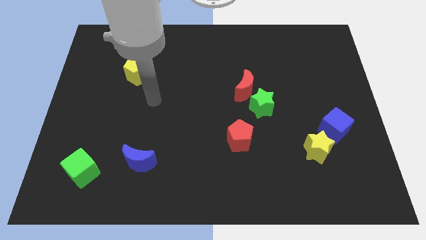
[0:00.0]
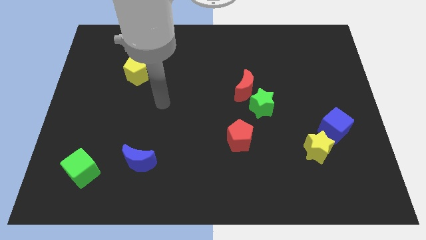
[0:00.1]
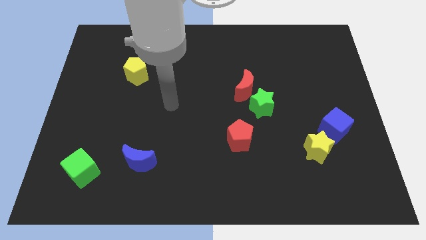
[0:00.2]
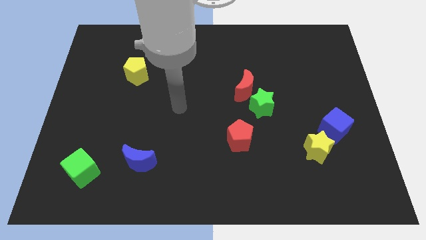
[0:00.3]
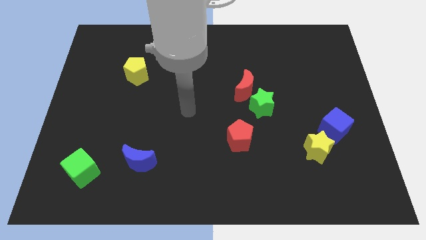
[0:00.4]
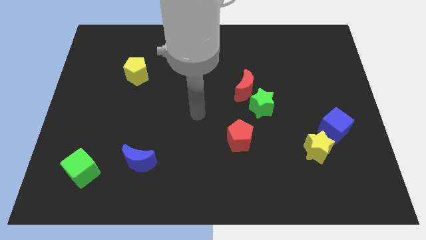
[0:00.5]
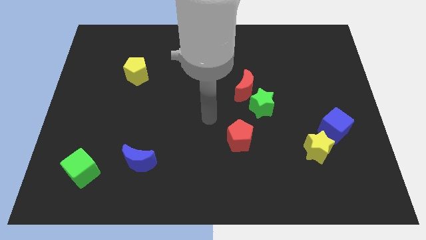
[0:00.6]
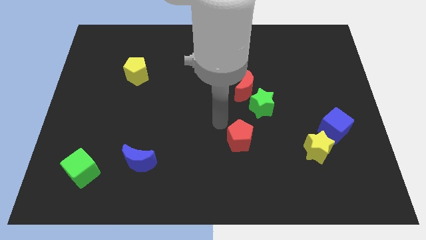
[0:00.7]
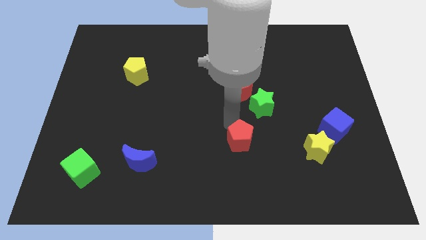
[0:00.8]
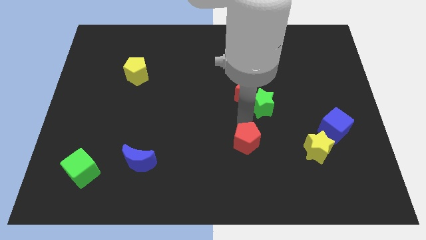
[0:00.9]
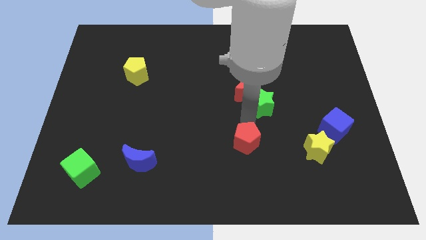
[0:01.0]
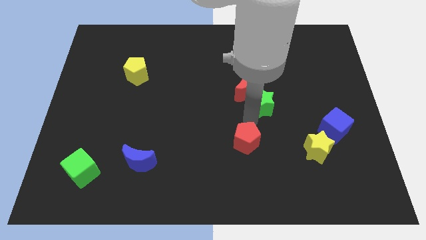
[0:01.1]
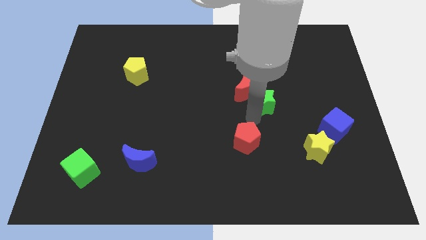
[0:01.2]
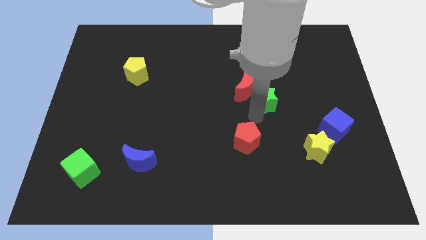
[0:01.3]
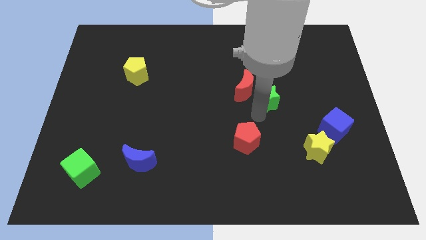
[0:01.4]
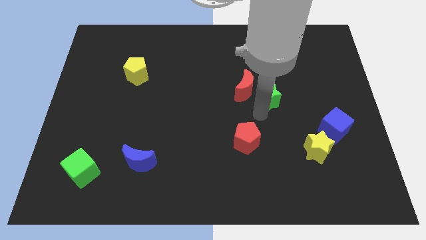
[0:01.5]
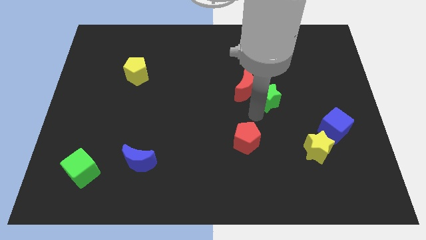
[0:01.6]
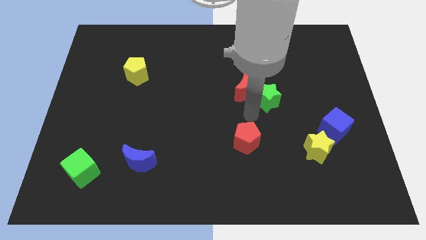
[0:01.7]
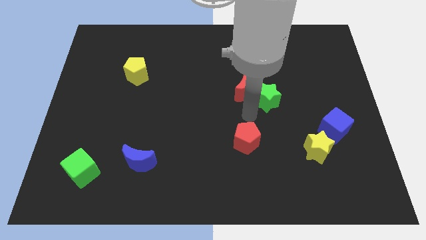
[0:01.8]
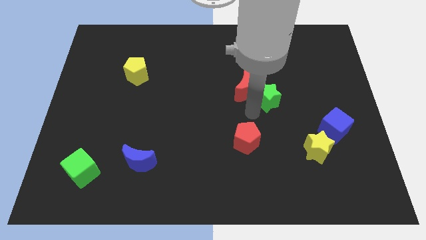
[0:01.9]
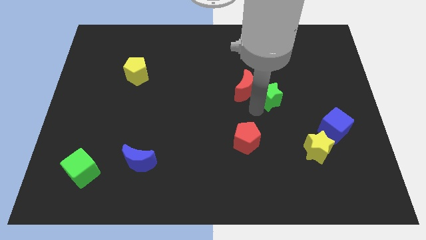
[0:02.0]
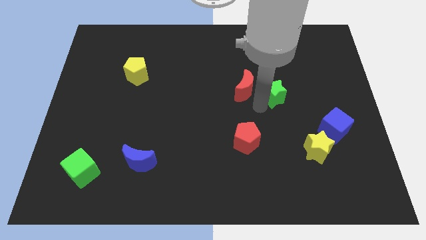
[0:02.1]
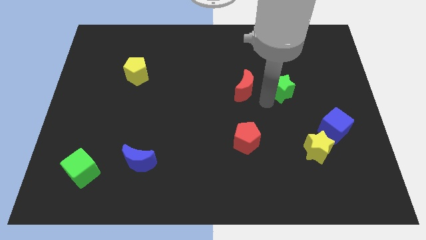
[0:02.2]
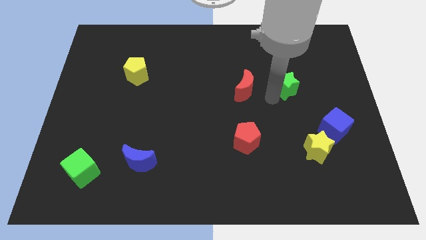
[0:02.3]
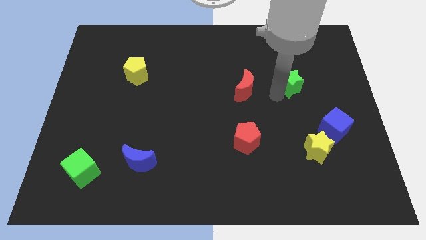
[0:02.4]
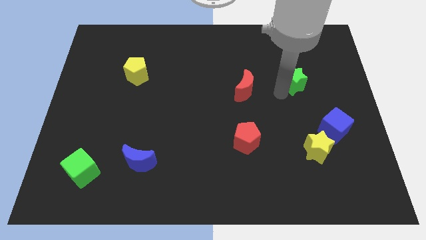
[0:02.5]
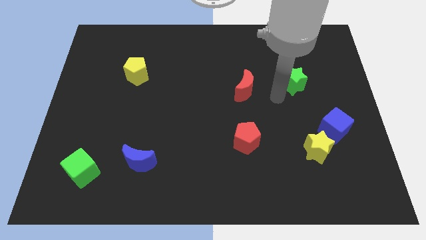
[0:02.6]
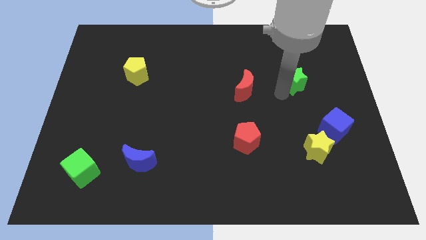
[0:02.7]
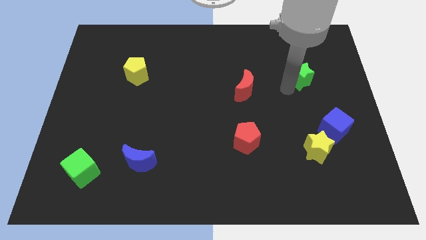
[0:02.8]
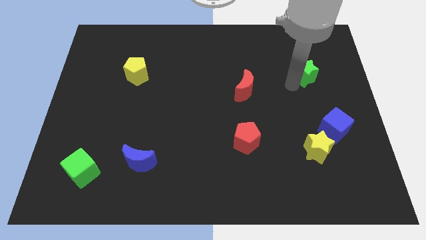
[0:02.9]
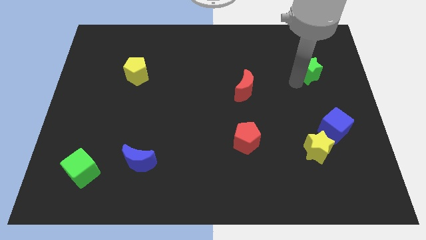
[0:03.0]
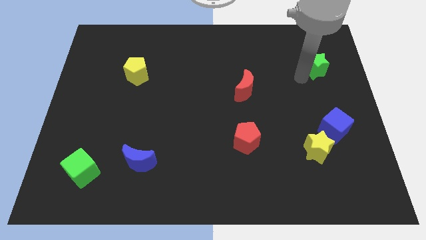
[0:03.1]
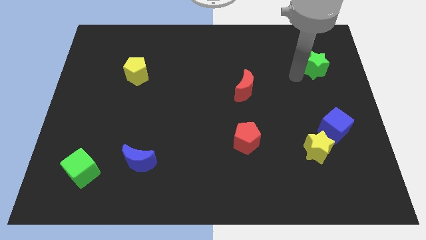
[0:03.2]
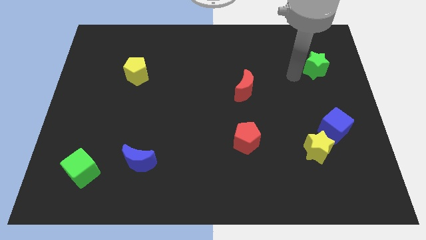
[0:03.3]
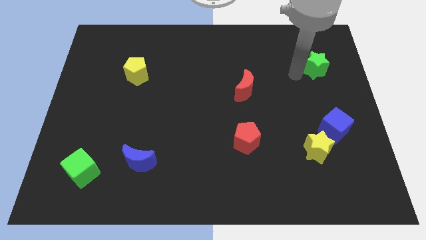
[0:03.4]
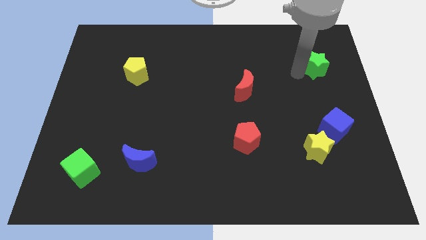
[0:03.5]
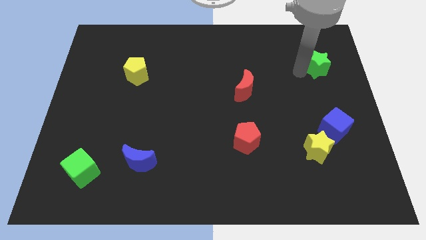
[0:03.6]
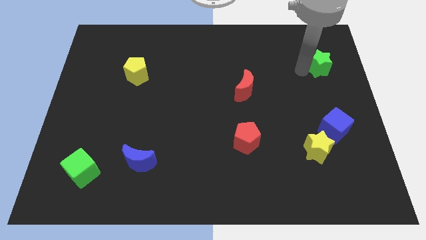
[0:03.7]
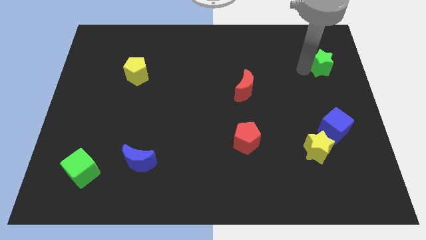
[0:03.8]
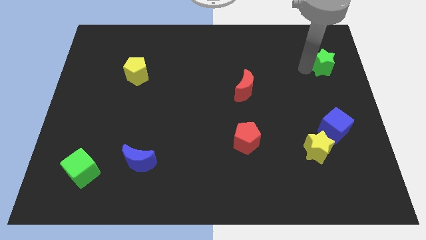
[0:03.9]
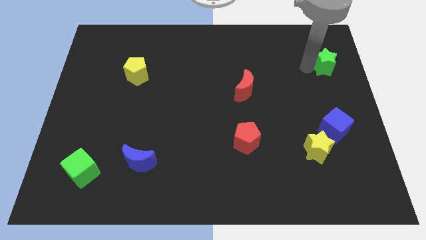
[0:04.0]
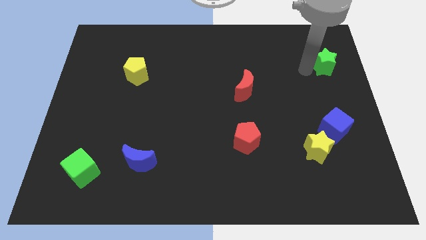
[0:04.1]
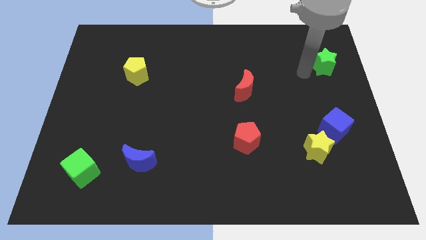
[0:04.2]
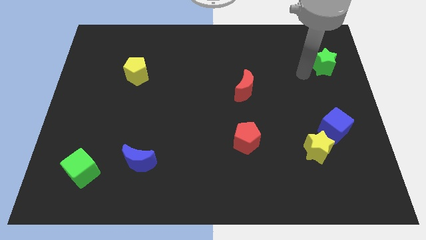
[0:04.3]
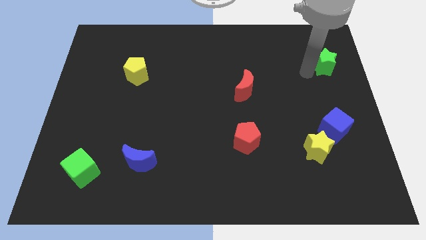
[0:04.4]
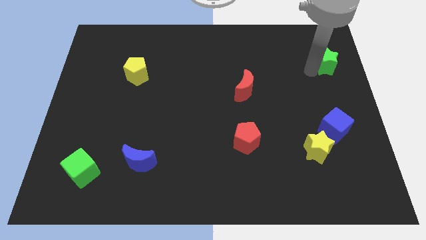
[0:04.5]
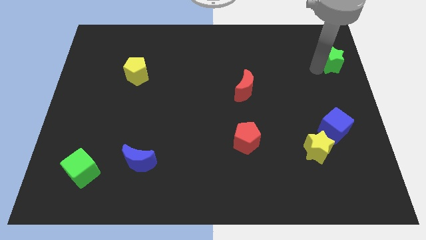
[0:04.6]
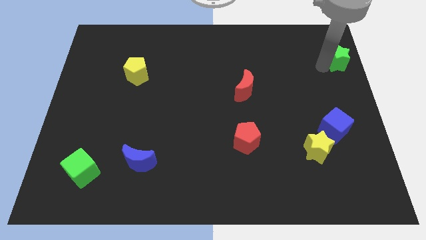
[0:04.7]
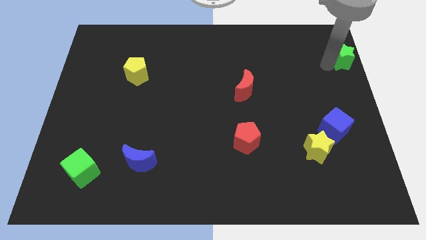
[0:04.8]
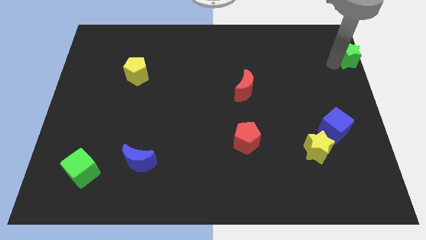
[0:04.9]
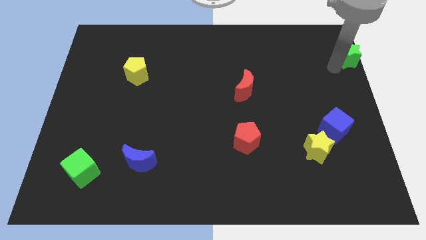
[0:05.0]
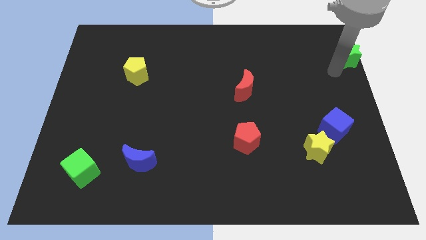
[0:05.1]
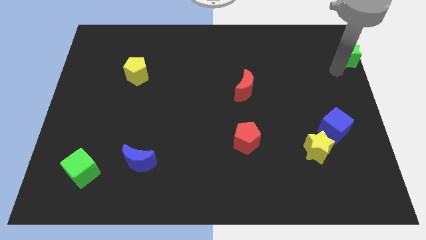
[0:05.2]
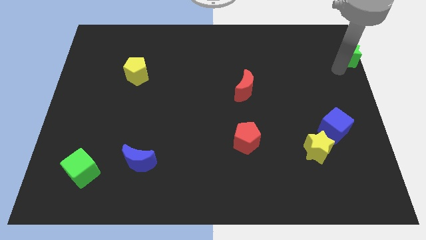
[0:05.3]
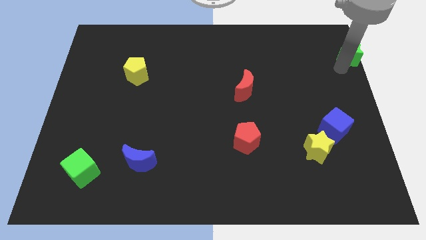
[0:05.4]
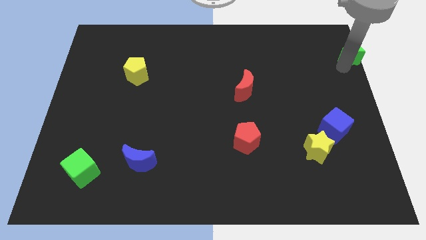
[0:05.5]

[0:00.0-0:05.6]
push the green star to the upper right corner

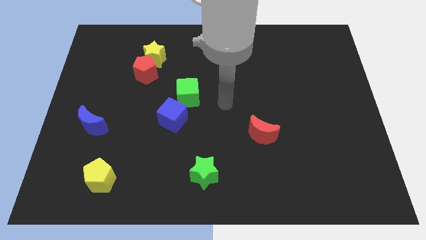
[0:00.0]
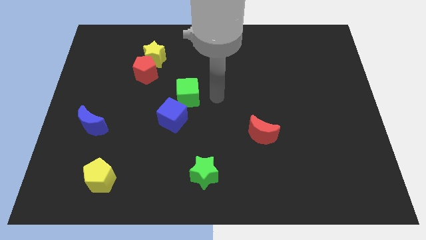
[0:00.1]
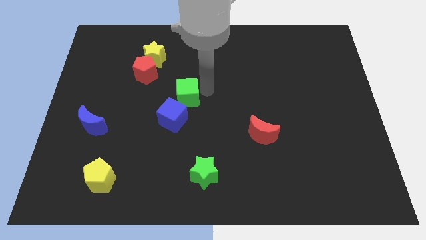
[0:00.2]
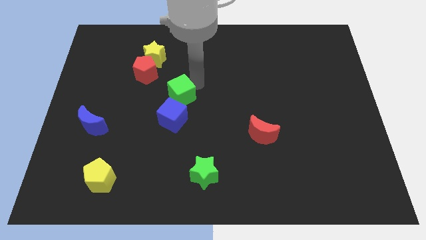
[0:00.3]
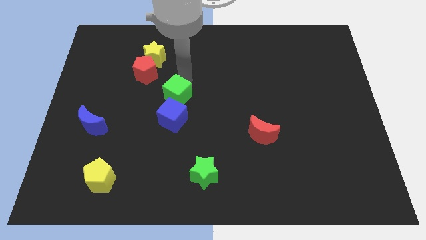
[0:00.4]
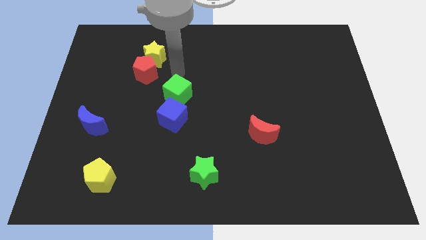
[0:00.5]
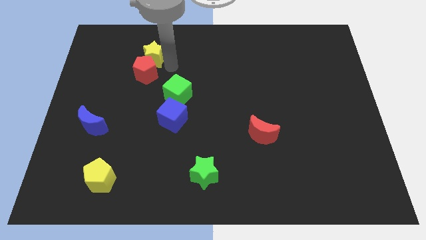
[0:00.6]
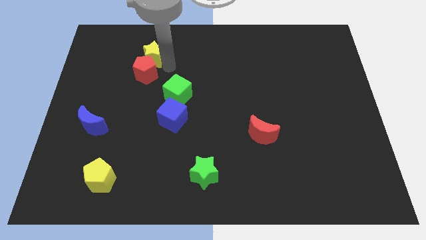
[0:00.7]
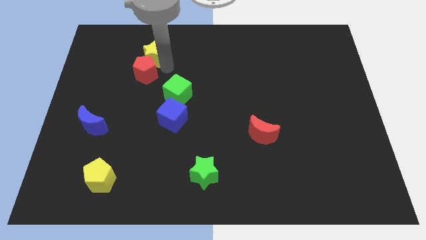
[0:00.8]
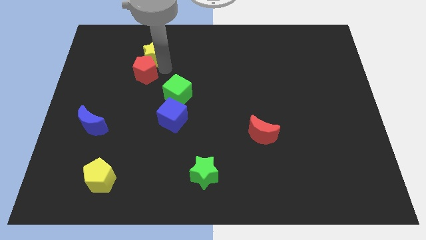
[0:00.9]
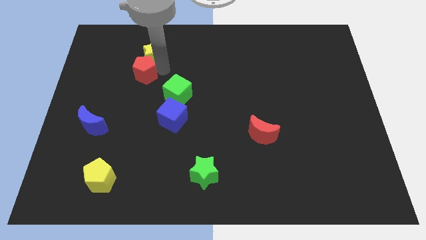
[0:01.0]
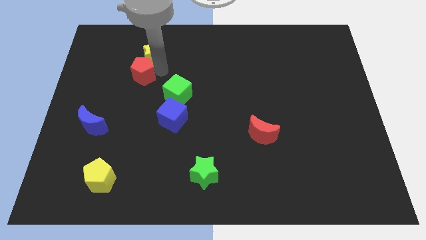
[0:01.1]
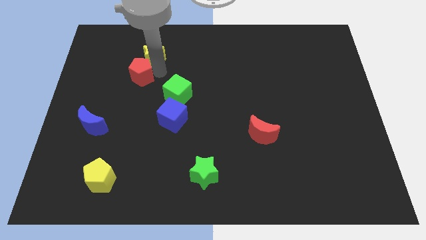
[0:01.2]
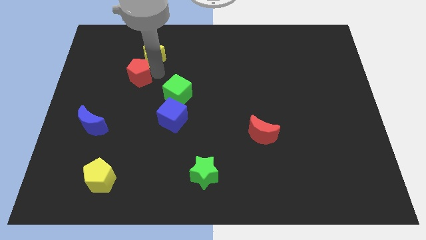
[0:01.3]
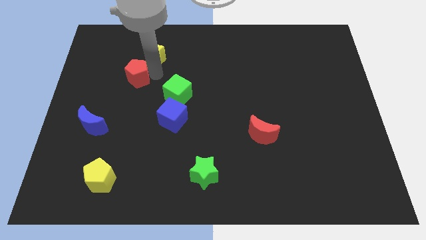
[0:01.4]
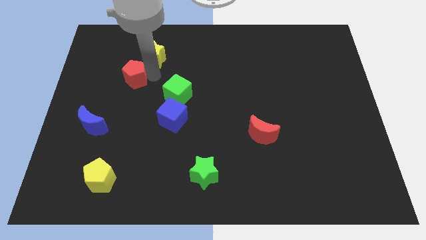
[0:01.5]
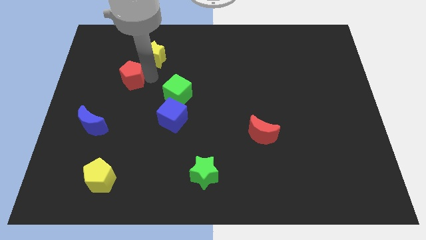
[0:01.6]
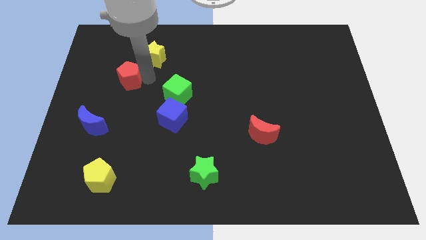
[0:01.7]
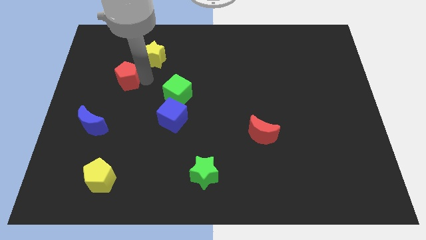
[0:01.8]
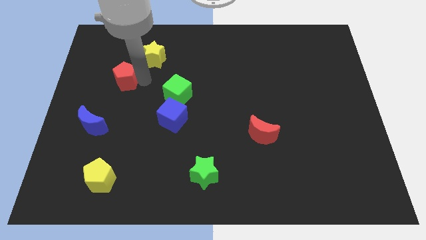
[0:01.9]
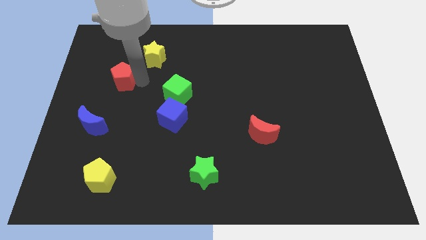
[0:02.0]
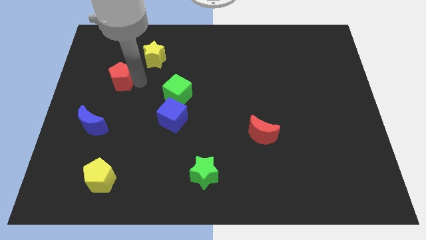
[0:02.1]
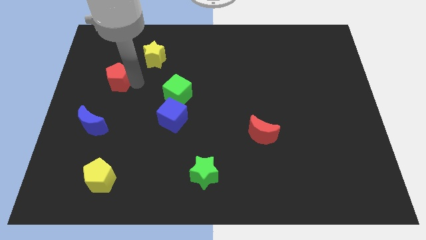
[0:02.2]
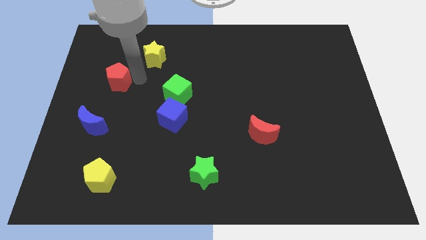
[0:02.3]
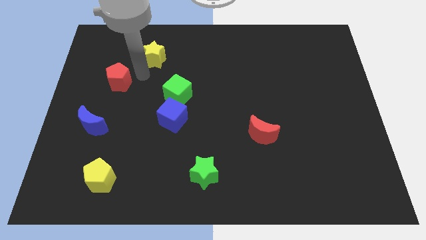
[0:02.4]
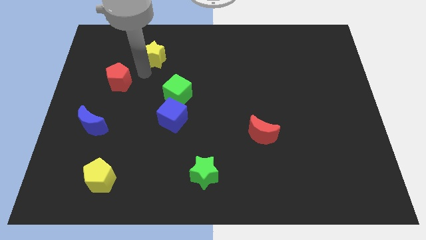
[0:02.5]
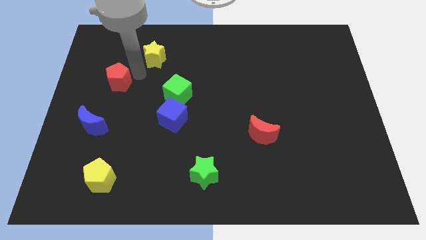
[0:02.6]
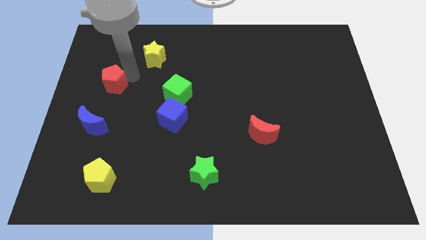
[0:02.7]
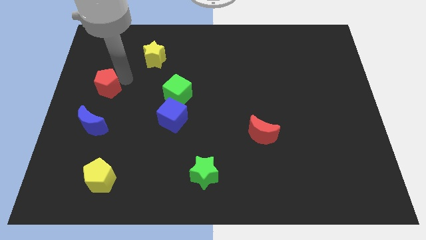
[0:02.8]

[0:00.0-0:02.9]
push the red pentagon to the left side
